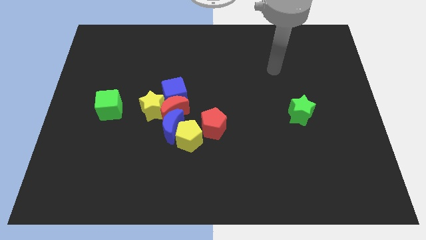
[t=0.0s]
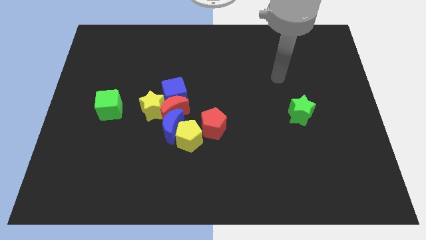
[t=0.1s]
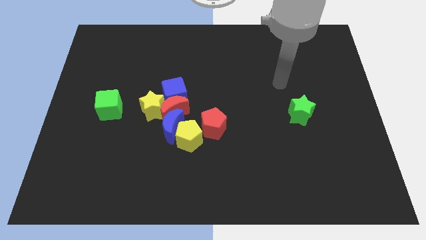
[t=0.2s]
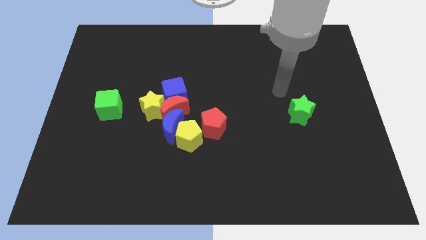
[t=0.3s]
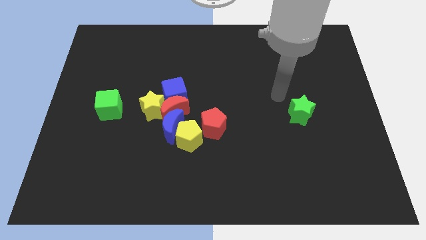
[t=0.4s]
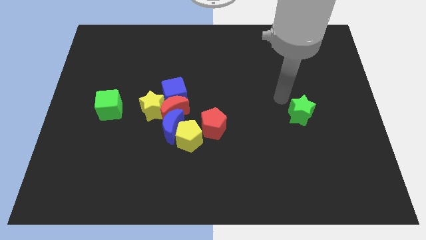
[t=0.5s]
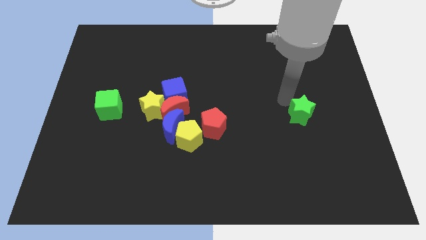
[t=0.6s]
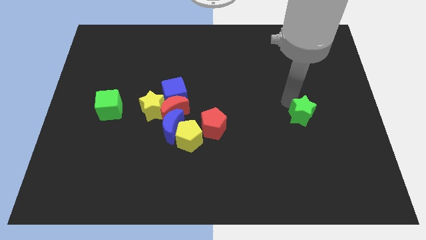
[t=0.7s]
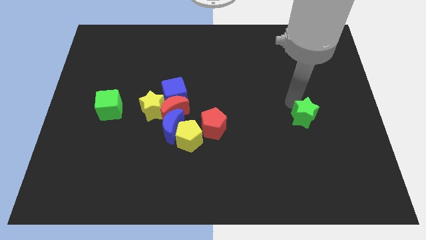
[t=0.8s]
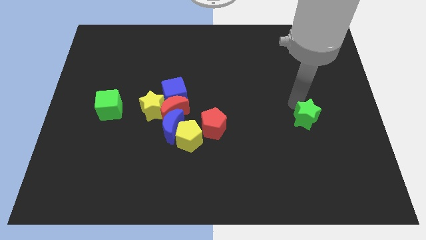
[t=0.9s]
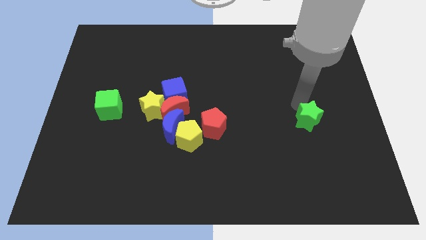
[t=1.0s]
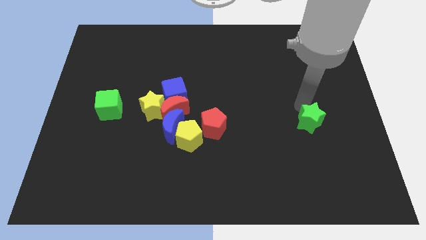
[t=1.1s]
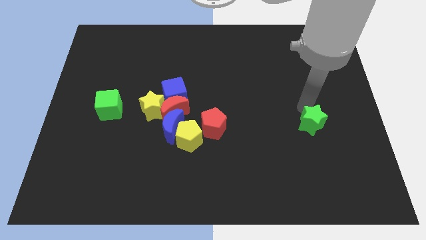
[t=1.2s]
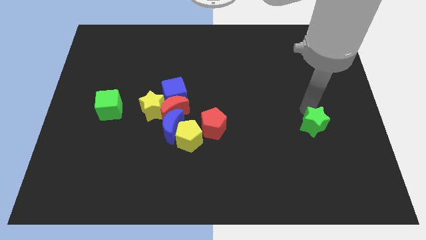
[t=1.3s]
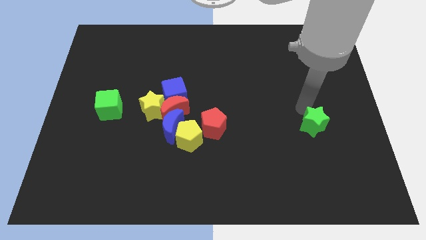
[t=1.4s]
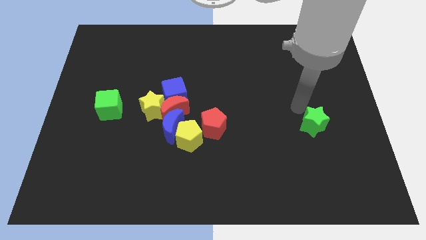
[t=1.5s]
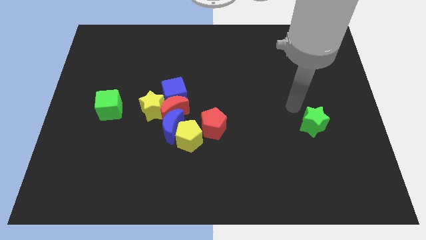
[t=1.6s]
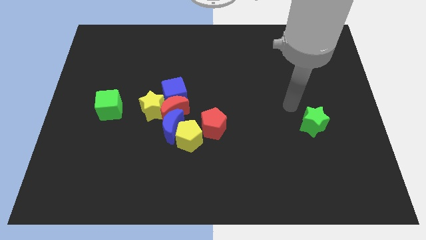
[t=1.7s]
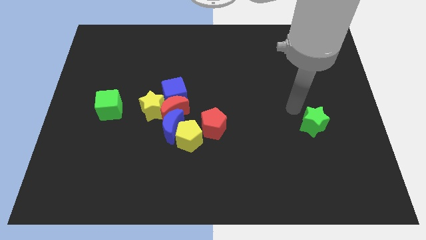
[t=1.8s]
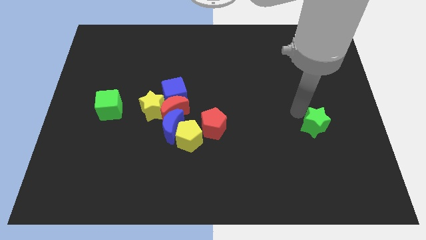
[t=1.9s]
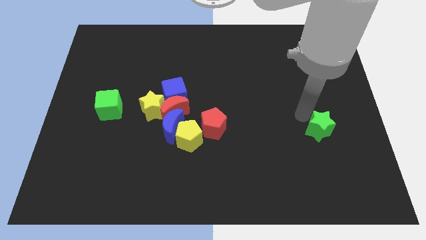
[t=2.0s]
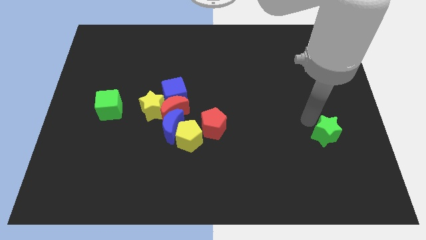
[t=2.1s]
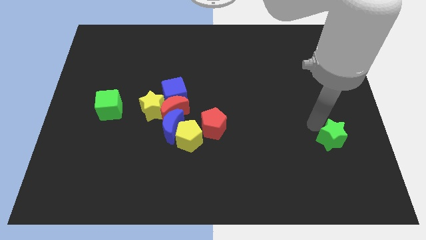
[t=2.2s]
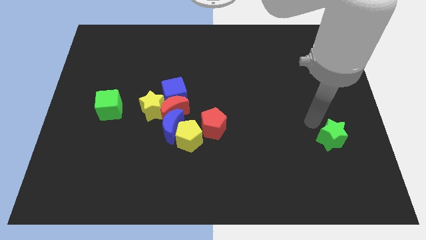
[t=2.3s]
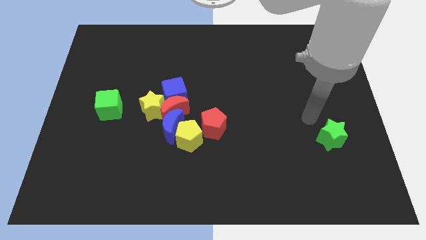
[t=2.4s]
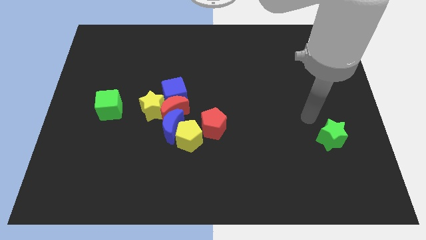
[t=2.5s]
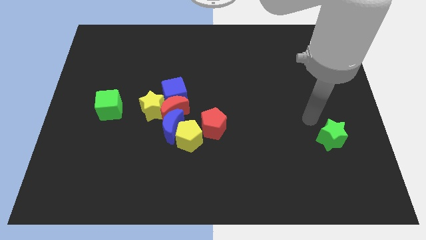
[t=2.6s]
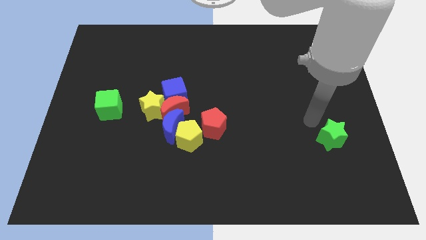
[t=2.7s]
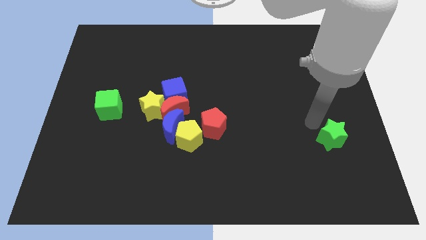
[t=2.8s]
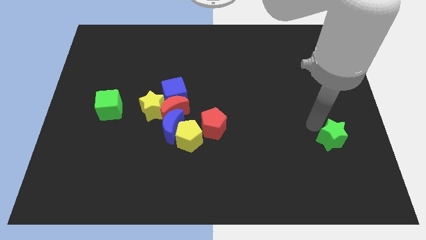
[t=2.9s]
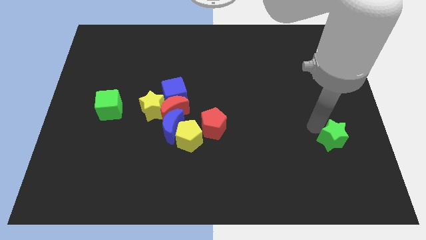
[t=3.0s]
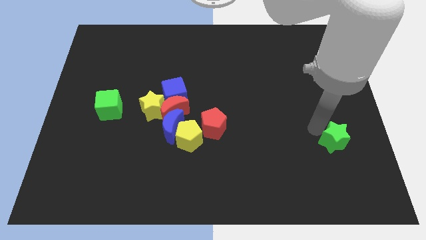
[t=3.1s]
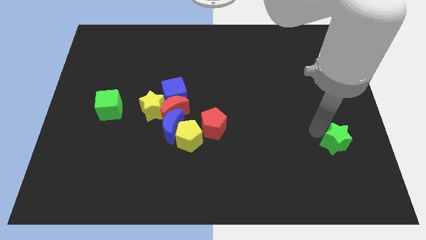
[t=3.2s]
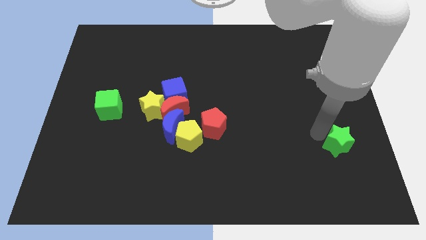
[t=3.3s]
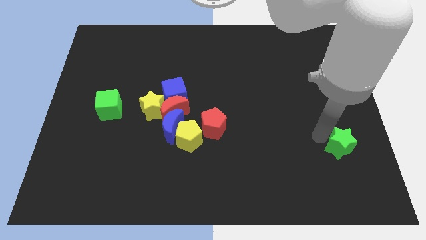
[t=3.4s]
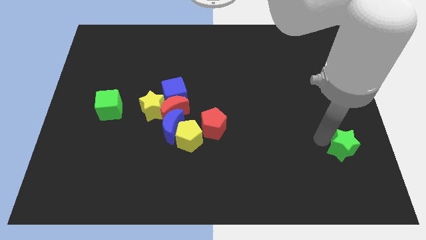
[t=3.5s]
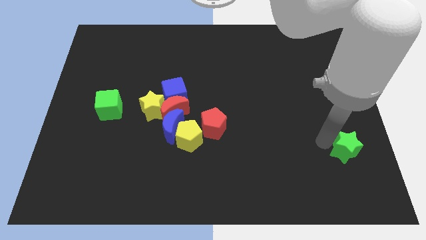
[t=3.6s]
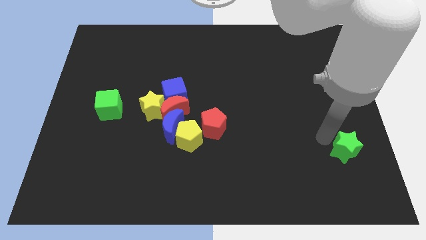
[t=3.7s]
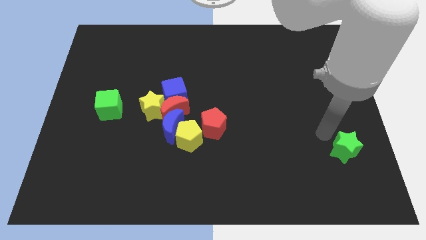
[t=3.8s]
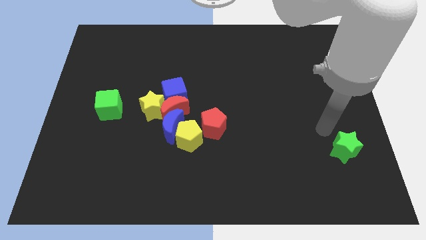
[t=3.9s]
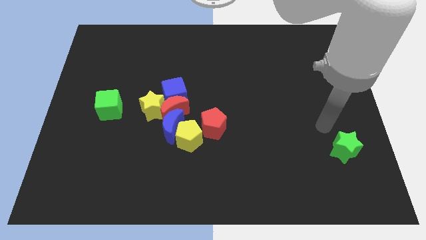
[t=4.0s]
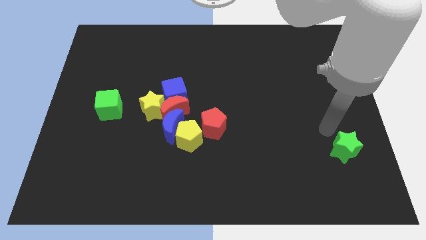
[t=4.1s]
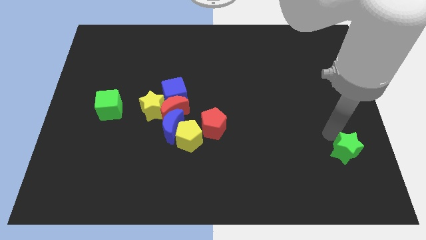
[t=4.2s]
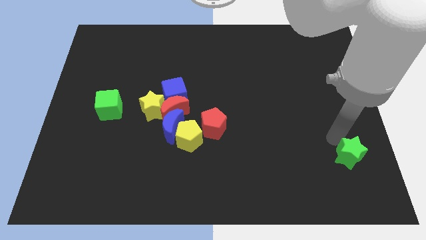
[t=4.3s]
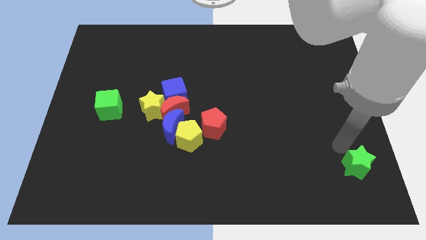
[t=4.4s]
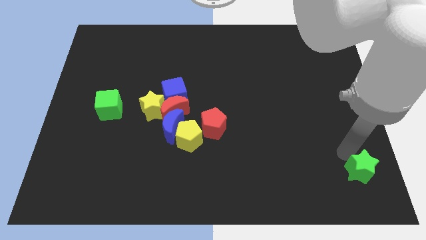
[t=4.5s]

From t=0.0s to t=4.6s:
push the green star to the bottom right

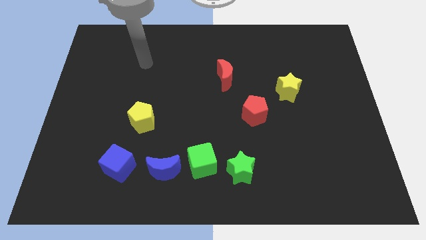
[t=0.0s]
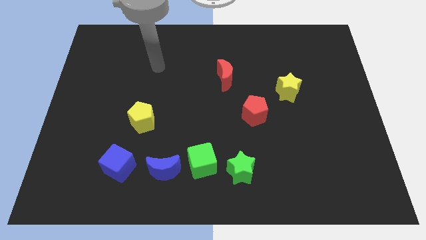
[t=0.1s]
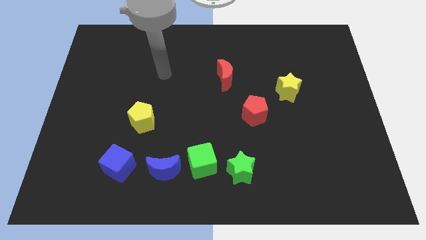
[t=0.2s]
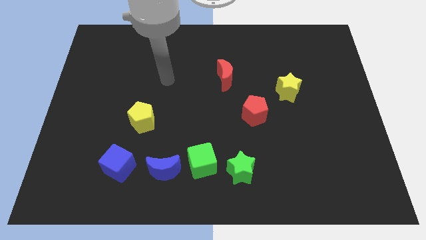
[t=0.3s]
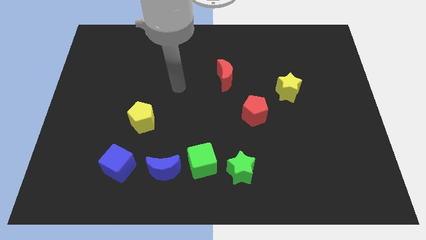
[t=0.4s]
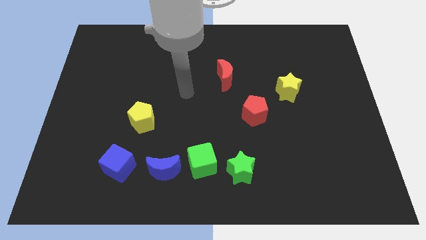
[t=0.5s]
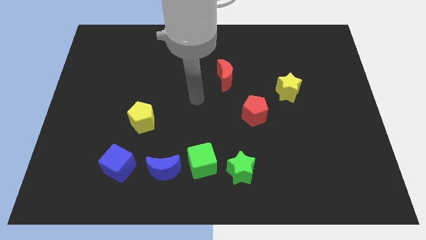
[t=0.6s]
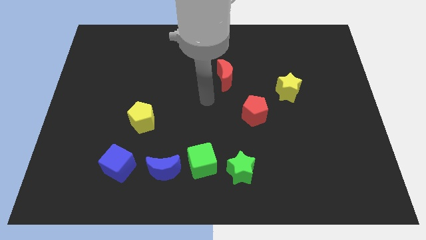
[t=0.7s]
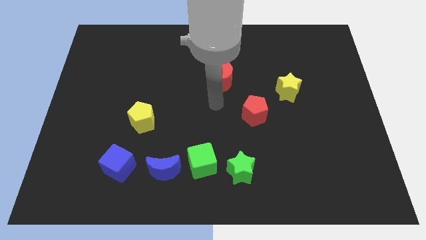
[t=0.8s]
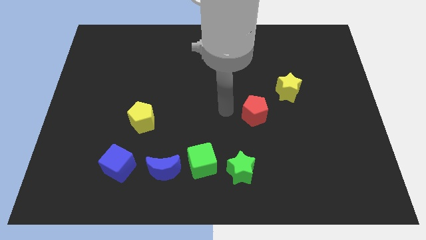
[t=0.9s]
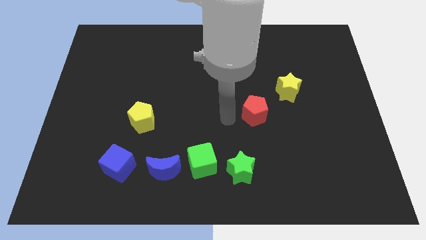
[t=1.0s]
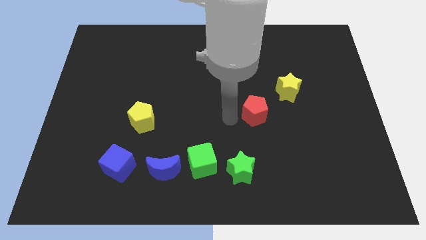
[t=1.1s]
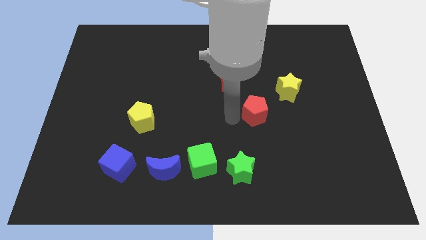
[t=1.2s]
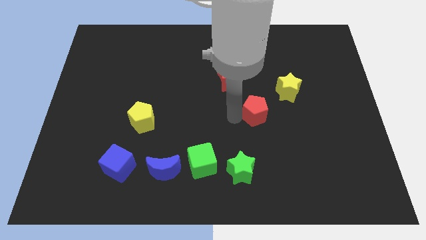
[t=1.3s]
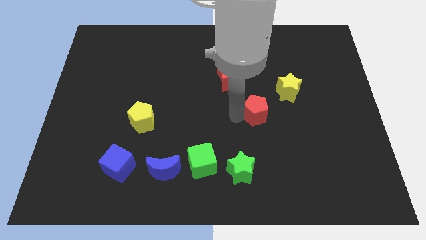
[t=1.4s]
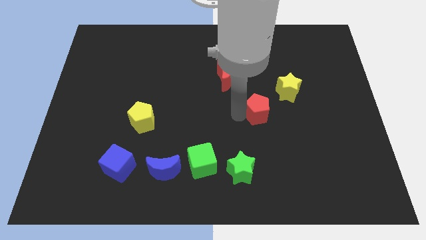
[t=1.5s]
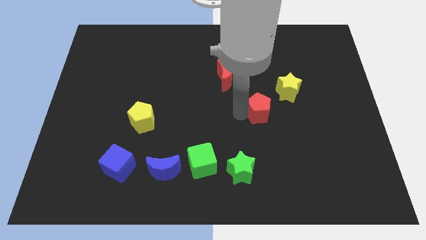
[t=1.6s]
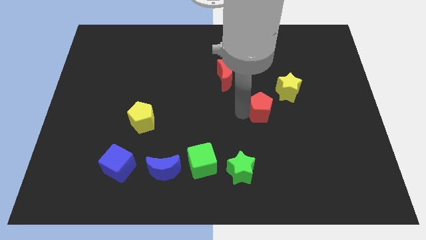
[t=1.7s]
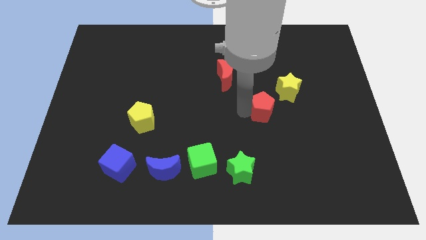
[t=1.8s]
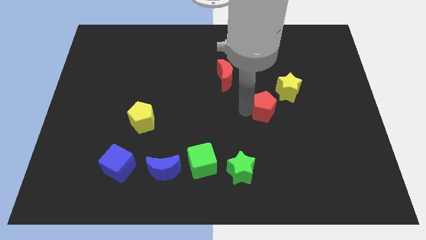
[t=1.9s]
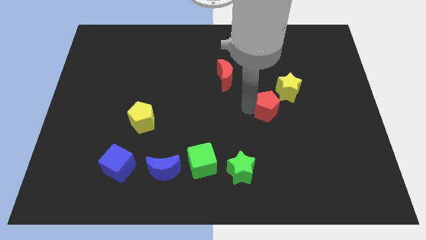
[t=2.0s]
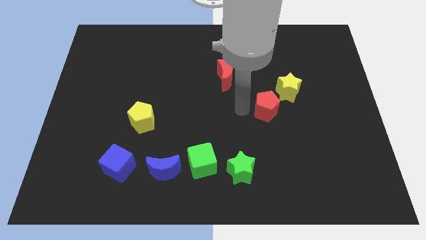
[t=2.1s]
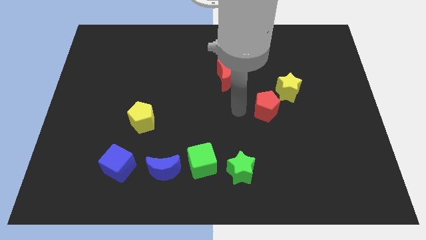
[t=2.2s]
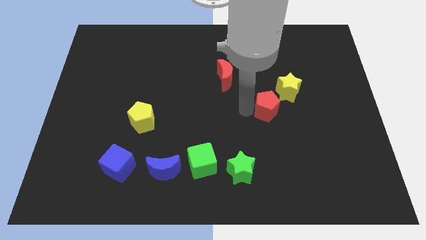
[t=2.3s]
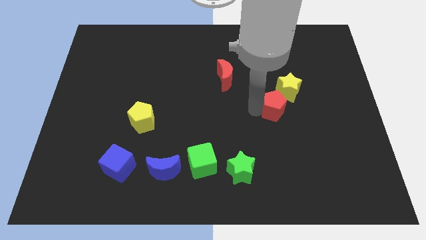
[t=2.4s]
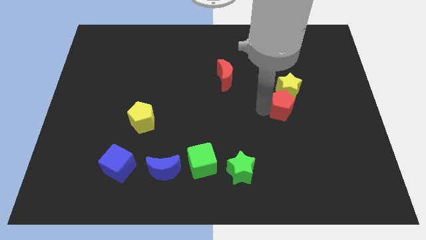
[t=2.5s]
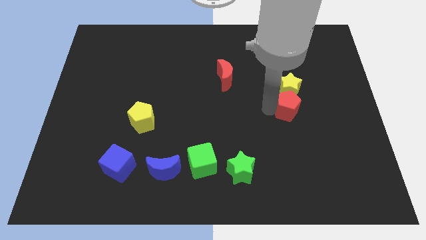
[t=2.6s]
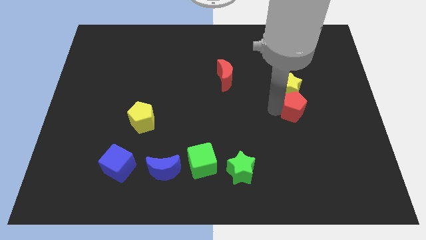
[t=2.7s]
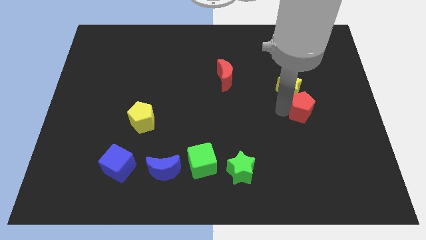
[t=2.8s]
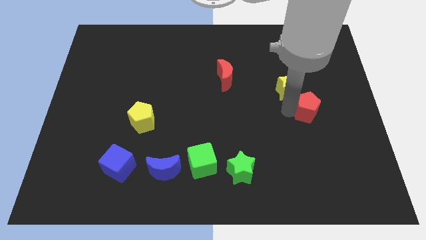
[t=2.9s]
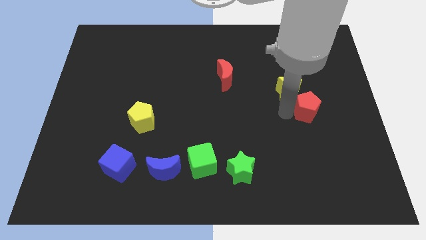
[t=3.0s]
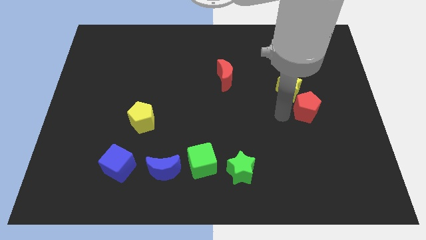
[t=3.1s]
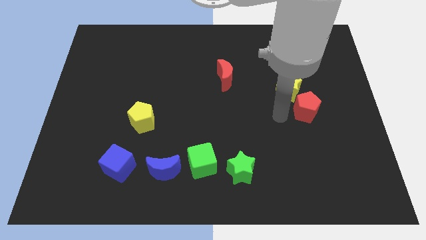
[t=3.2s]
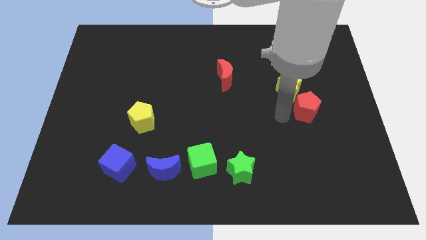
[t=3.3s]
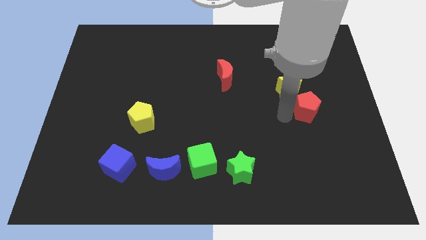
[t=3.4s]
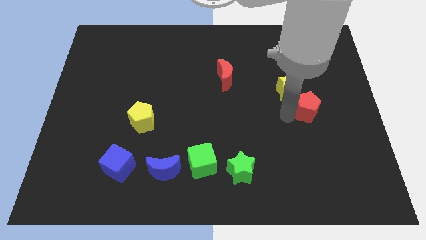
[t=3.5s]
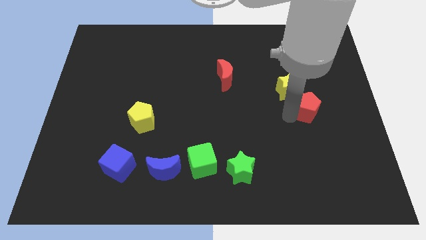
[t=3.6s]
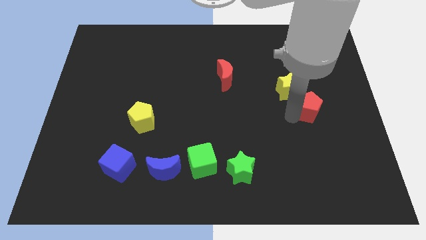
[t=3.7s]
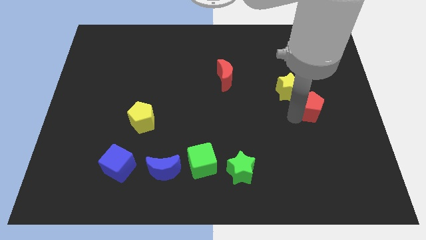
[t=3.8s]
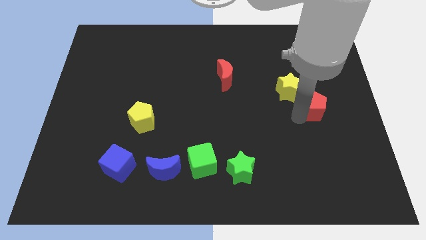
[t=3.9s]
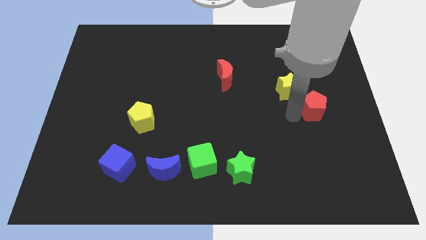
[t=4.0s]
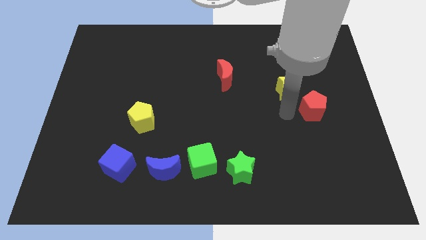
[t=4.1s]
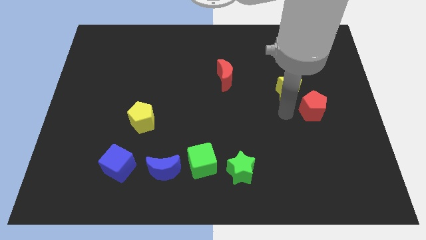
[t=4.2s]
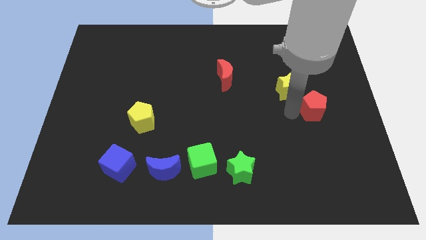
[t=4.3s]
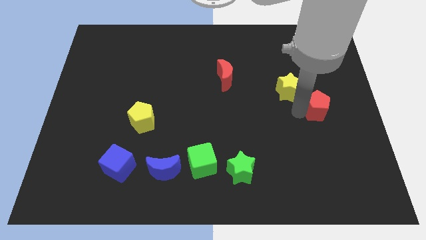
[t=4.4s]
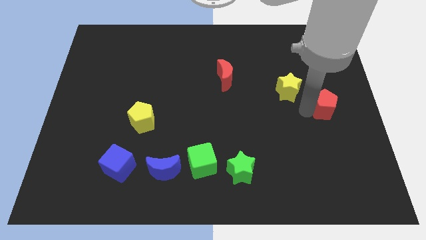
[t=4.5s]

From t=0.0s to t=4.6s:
push the red pentagon to the center right
